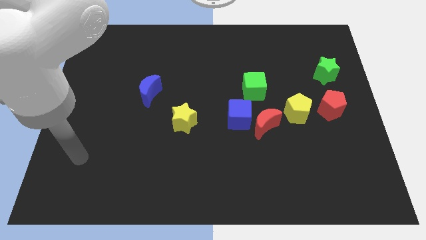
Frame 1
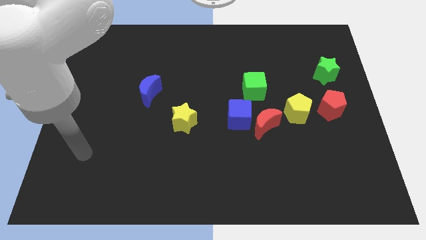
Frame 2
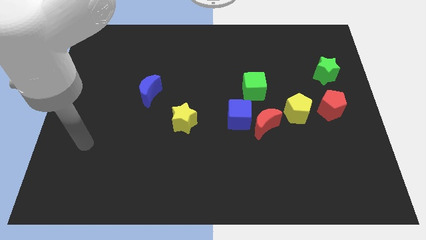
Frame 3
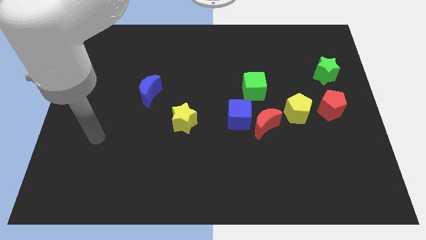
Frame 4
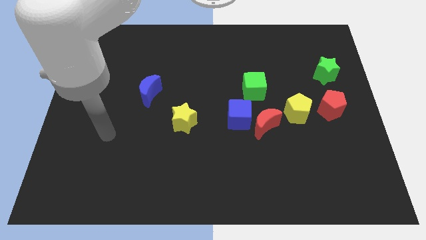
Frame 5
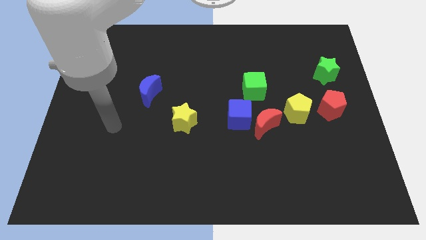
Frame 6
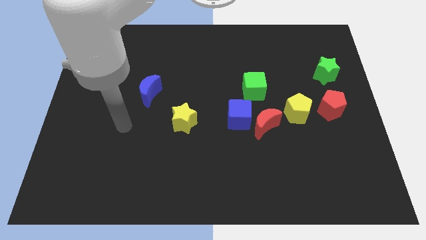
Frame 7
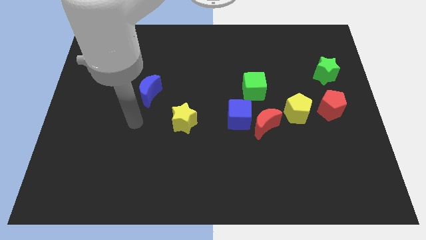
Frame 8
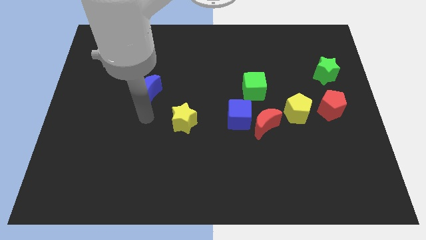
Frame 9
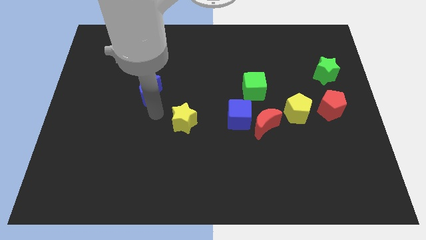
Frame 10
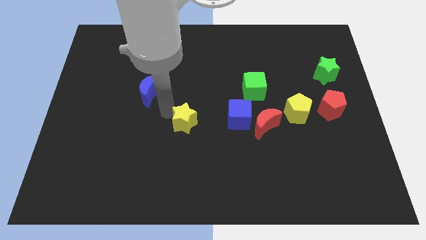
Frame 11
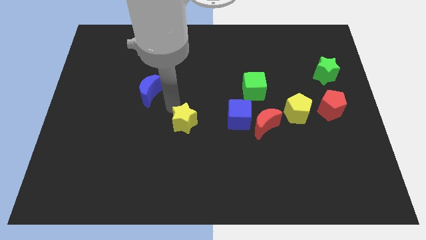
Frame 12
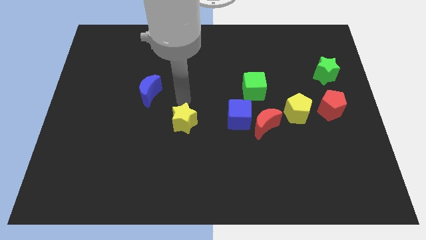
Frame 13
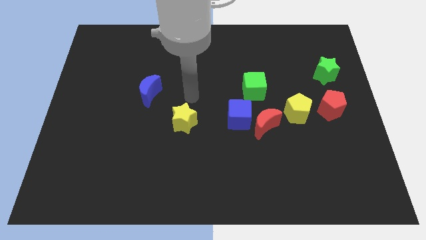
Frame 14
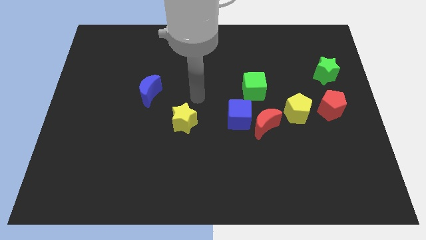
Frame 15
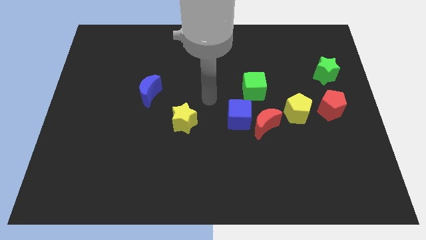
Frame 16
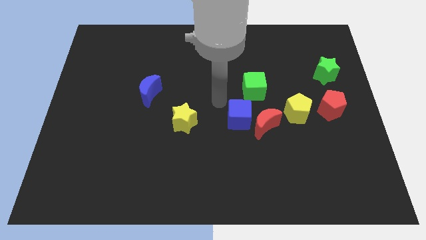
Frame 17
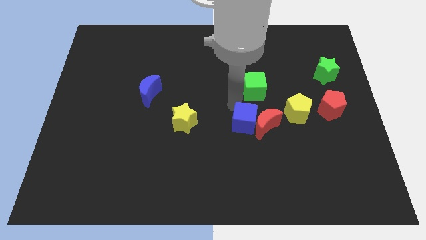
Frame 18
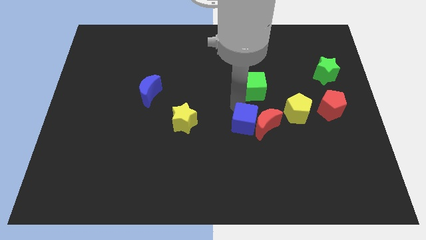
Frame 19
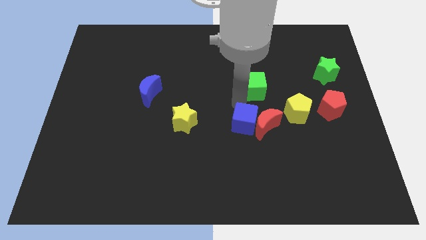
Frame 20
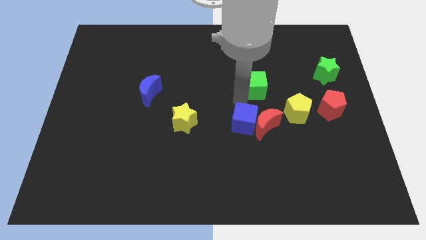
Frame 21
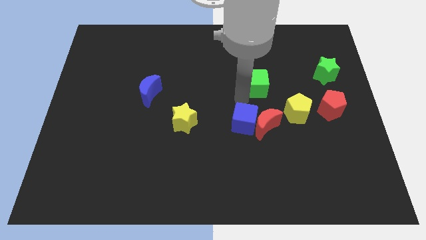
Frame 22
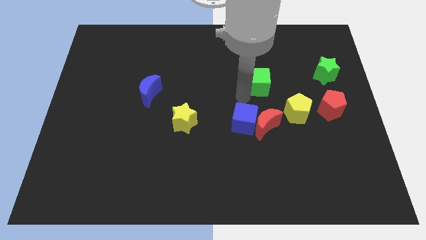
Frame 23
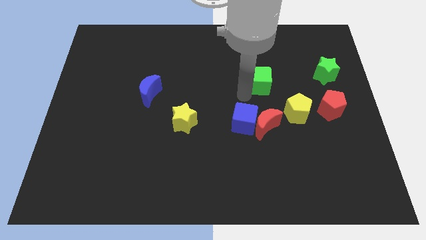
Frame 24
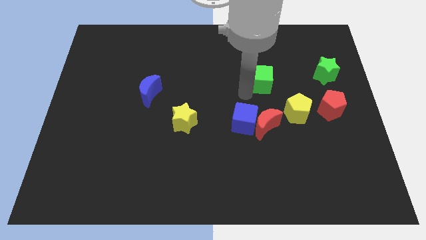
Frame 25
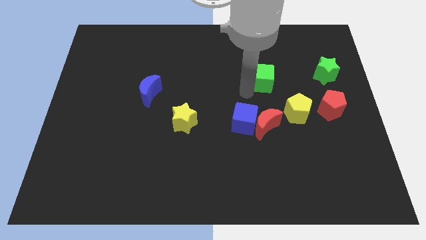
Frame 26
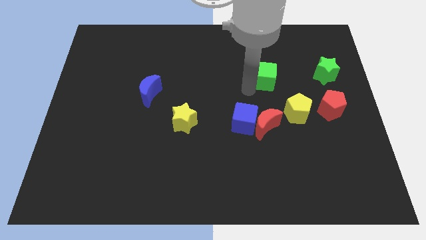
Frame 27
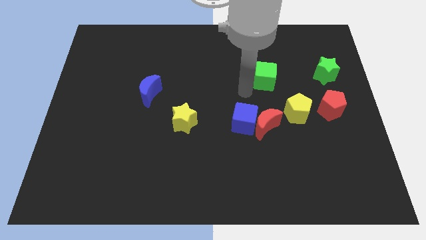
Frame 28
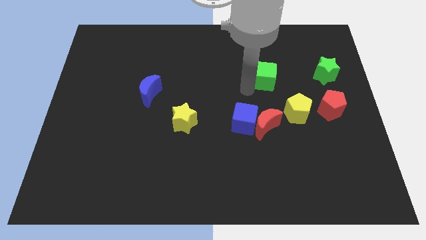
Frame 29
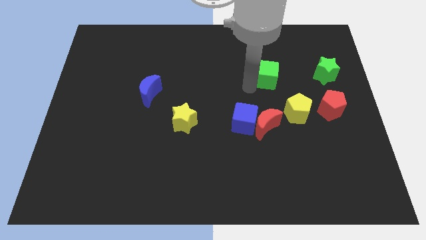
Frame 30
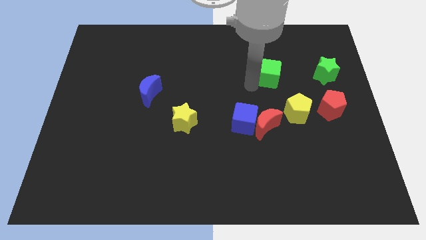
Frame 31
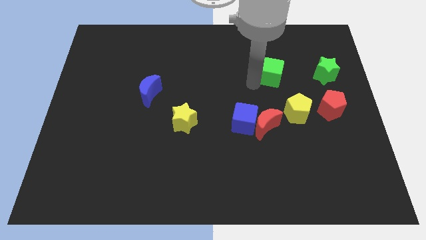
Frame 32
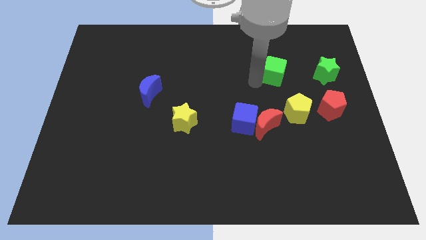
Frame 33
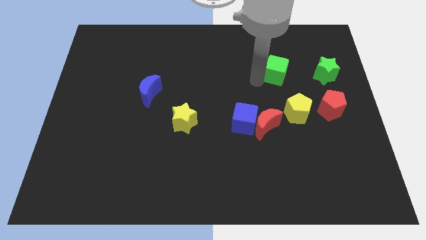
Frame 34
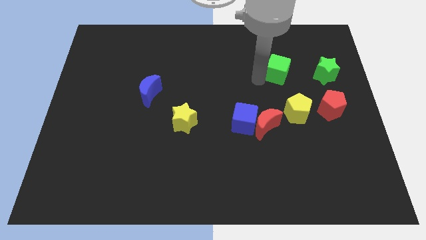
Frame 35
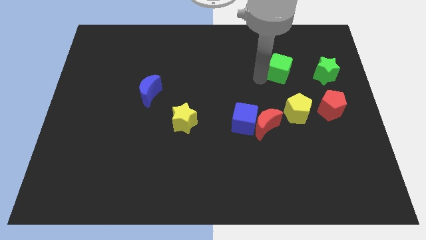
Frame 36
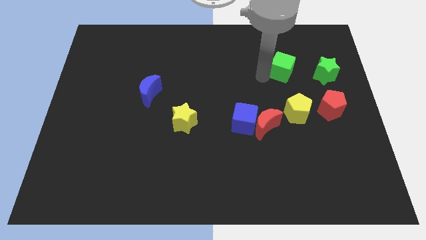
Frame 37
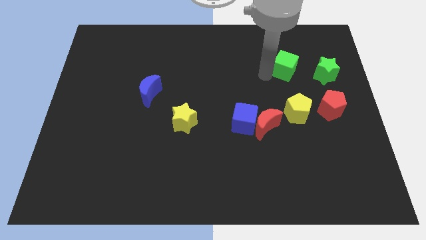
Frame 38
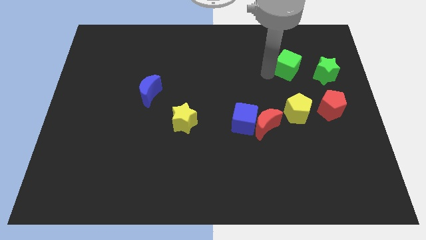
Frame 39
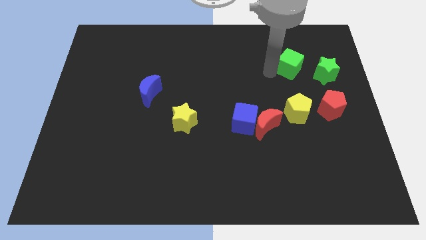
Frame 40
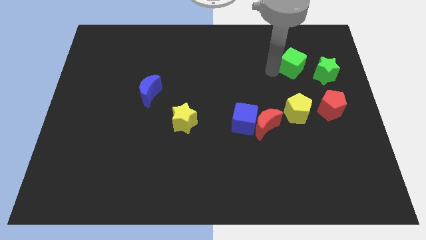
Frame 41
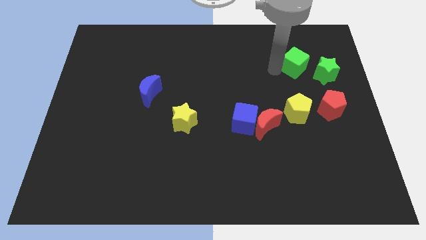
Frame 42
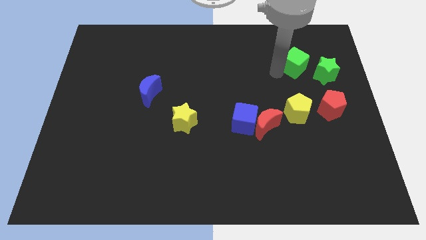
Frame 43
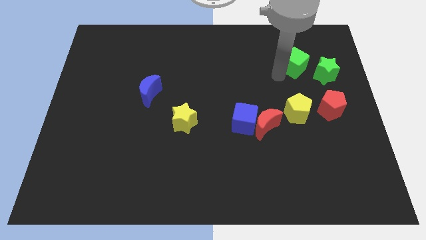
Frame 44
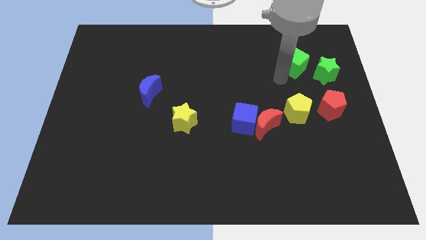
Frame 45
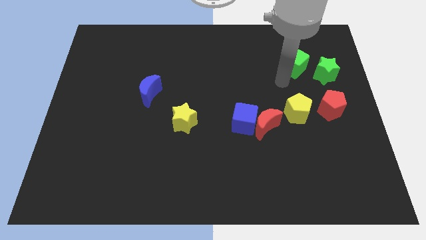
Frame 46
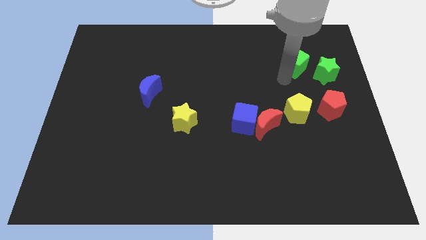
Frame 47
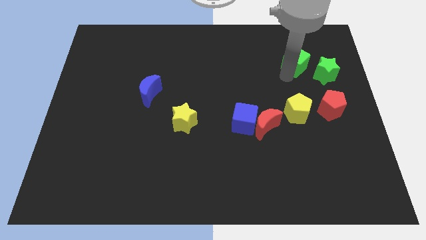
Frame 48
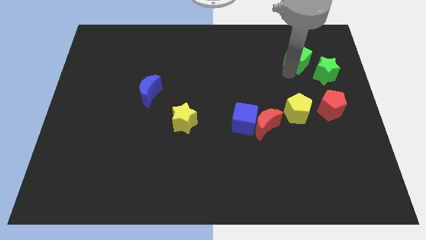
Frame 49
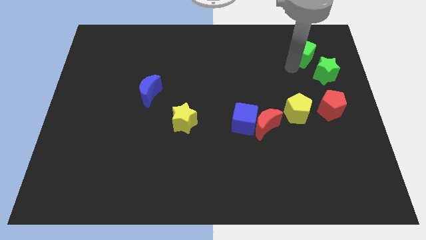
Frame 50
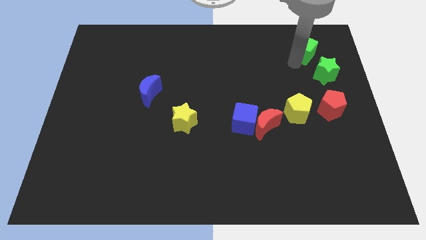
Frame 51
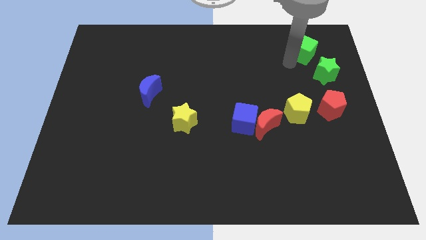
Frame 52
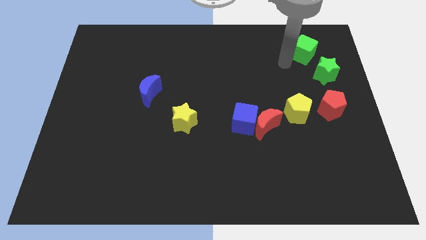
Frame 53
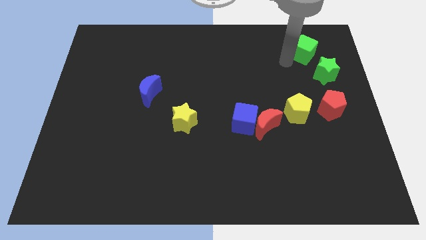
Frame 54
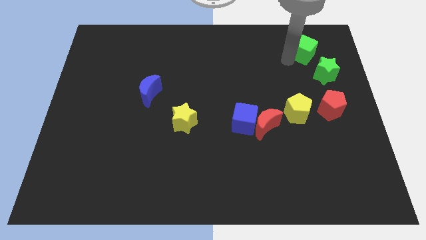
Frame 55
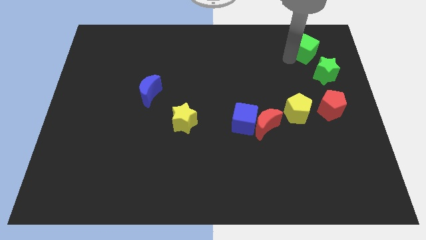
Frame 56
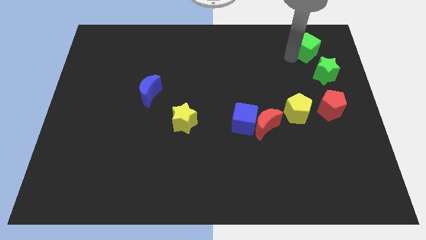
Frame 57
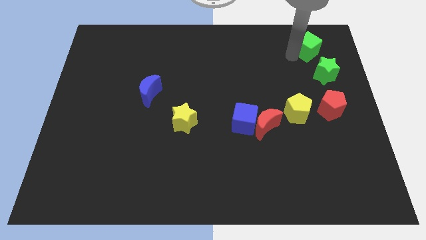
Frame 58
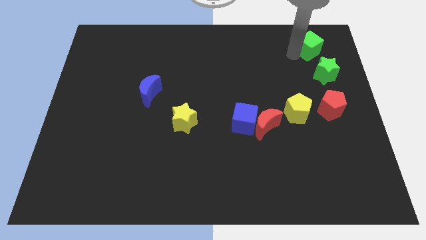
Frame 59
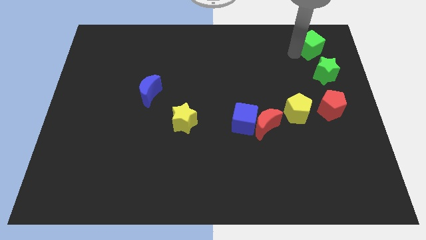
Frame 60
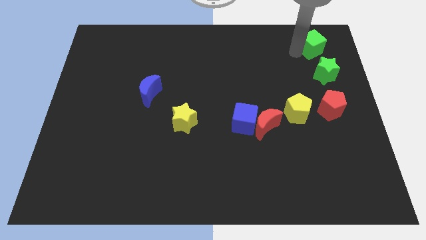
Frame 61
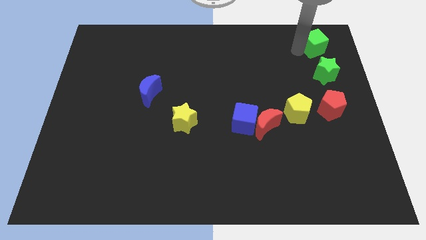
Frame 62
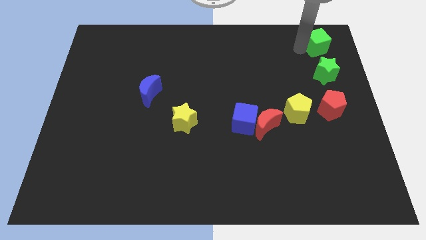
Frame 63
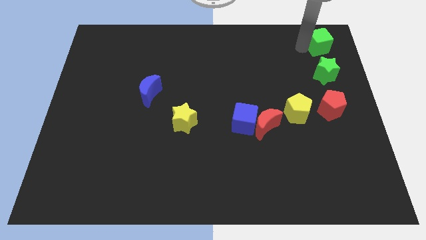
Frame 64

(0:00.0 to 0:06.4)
move the green cube to the upper right corner

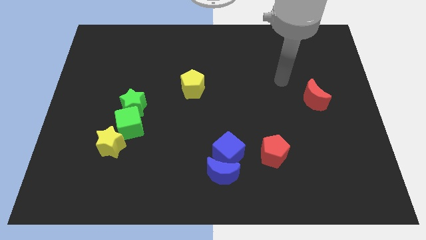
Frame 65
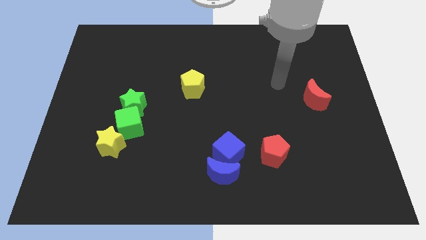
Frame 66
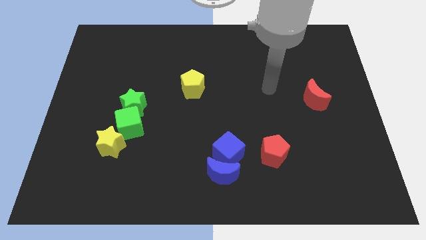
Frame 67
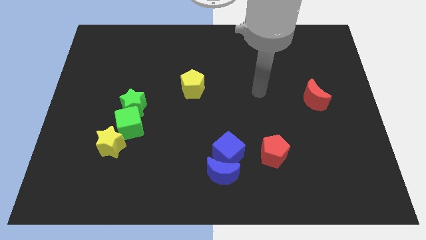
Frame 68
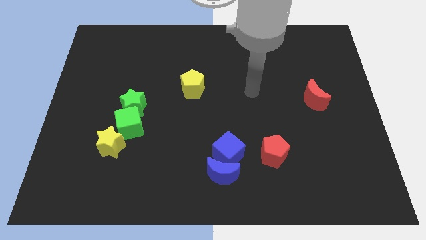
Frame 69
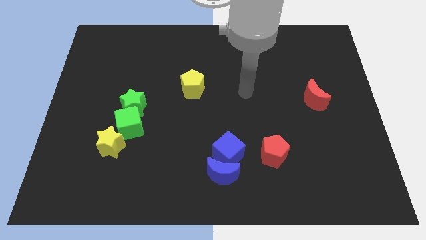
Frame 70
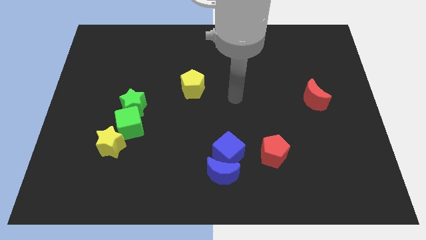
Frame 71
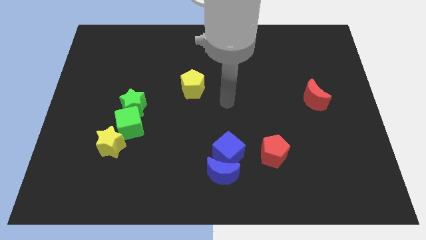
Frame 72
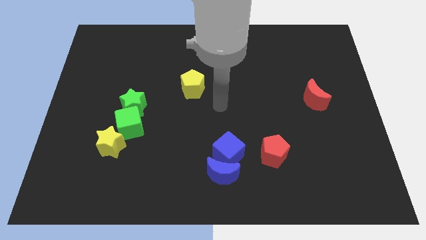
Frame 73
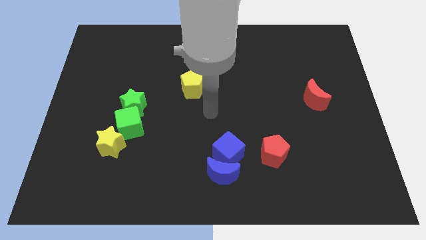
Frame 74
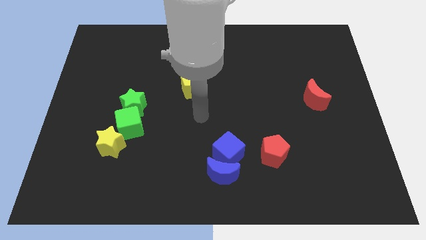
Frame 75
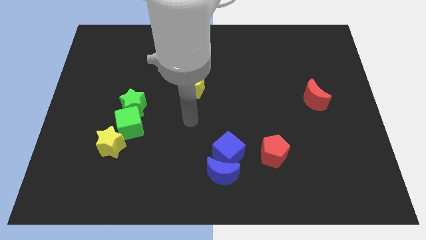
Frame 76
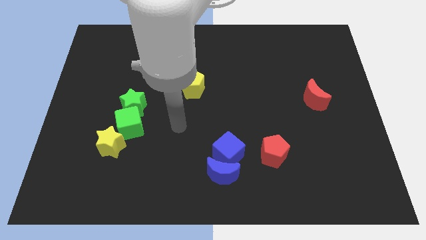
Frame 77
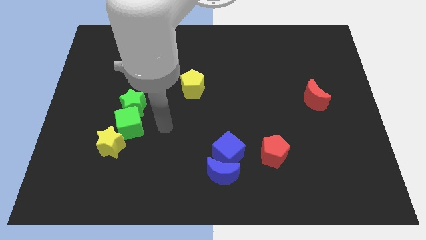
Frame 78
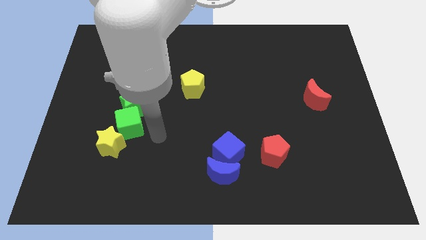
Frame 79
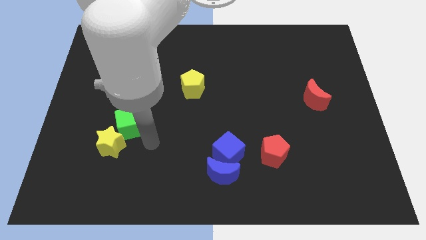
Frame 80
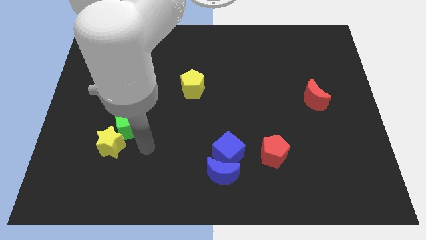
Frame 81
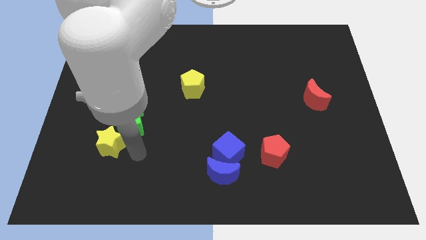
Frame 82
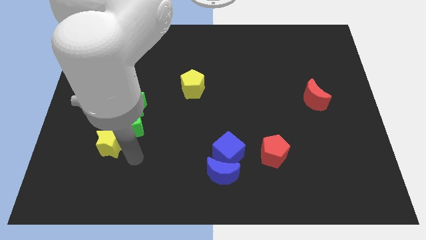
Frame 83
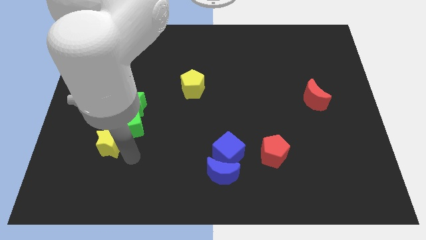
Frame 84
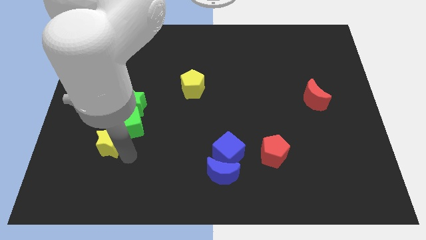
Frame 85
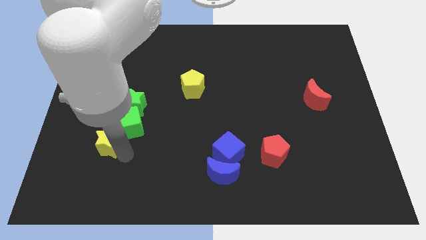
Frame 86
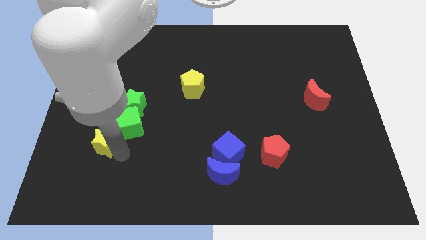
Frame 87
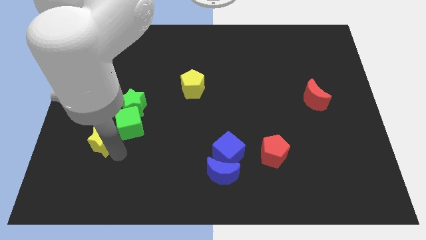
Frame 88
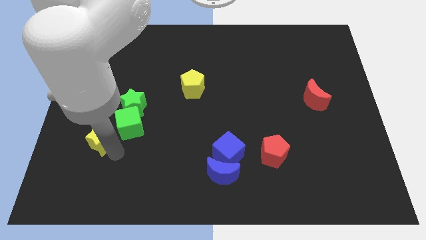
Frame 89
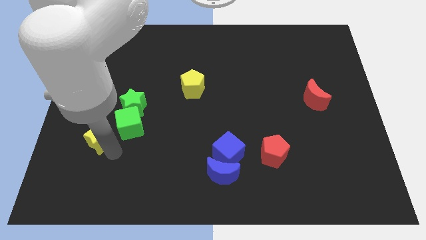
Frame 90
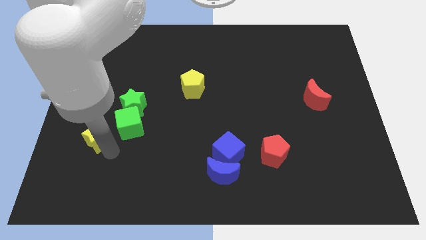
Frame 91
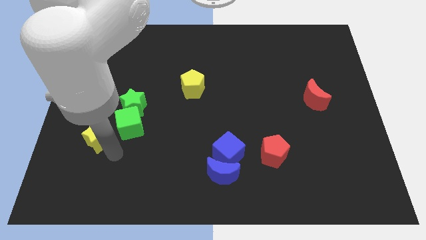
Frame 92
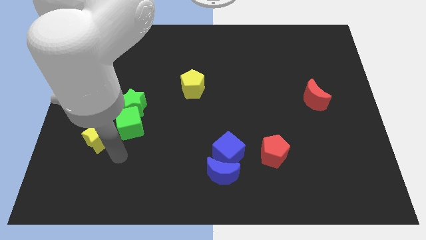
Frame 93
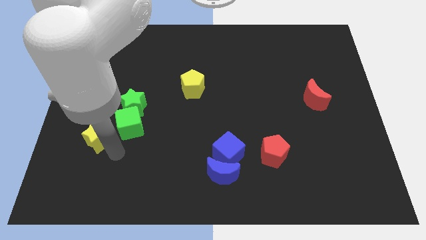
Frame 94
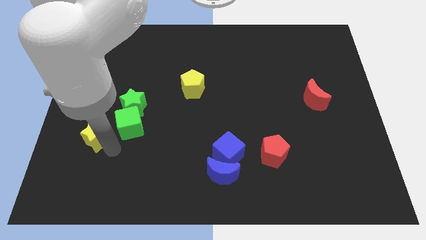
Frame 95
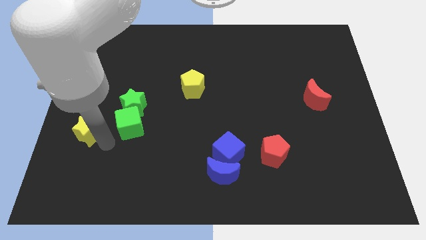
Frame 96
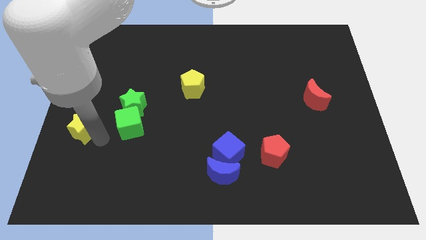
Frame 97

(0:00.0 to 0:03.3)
put the yellow star to the center left
